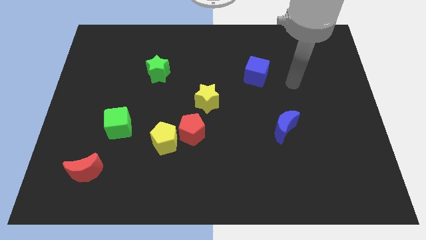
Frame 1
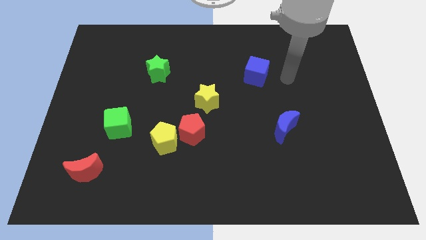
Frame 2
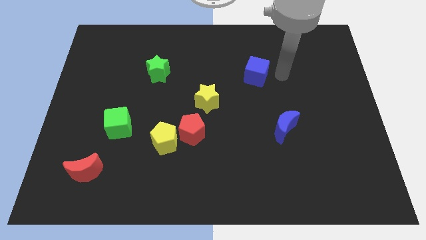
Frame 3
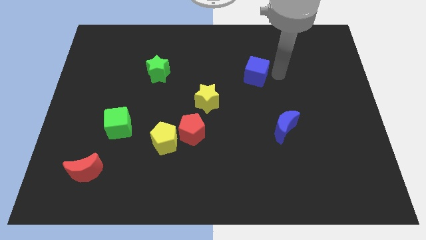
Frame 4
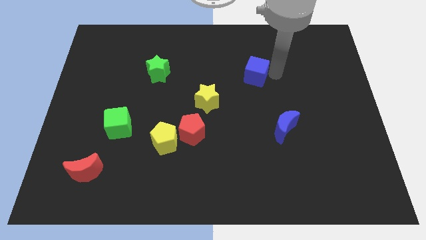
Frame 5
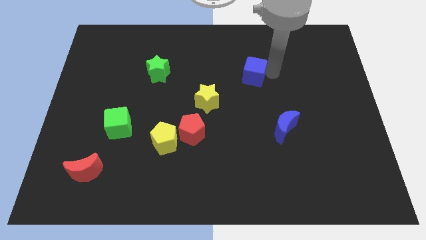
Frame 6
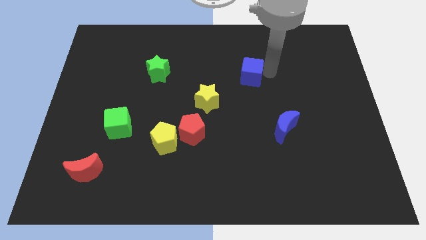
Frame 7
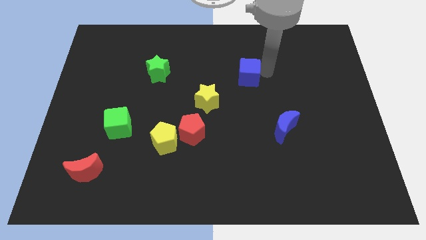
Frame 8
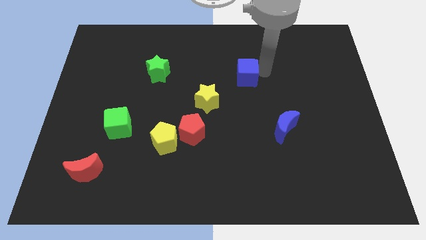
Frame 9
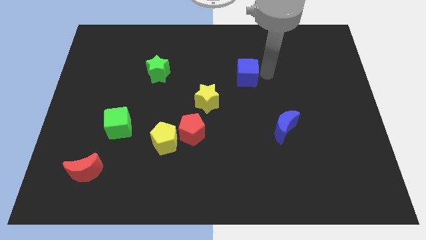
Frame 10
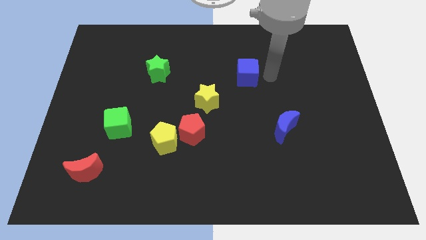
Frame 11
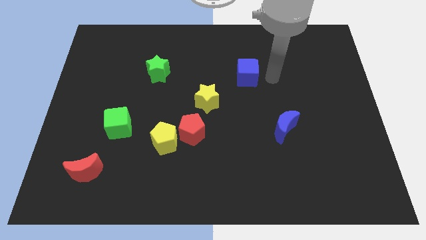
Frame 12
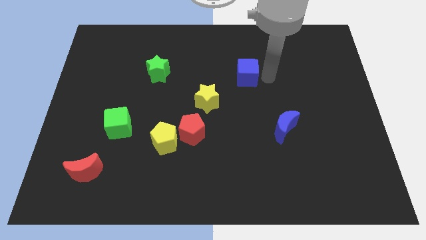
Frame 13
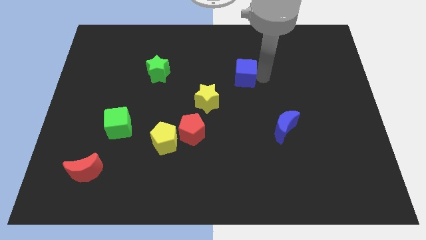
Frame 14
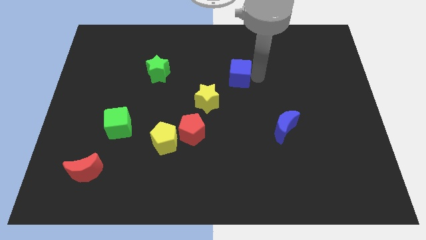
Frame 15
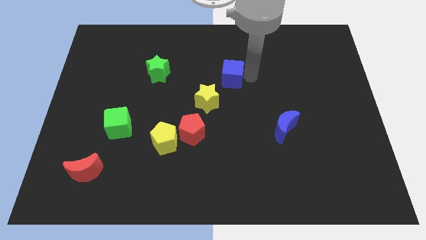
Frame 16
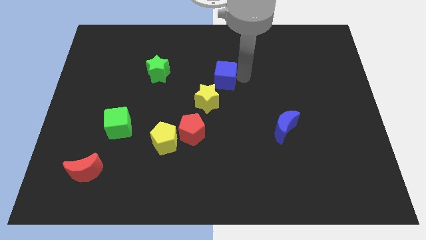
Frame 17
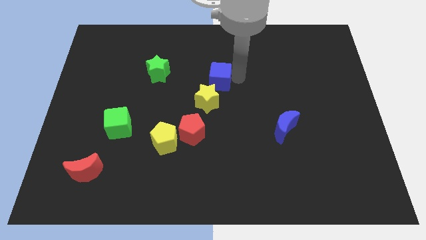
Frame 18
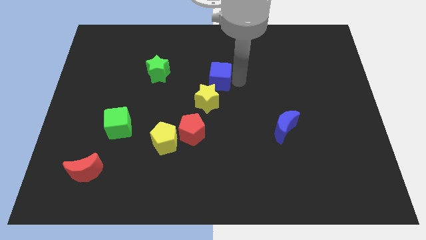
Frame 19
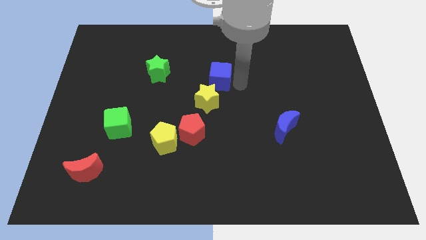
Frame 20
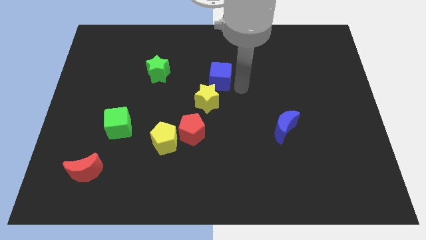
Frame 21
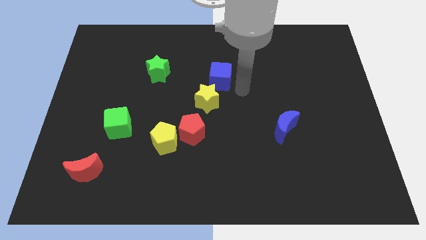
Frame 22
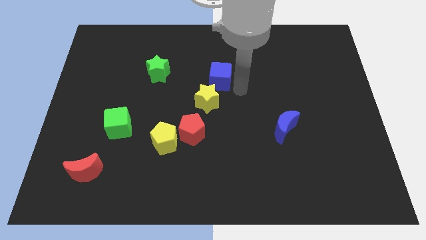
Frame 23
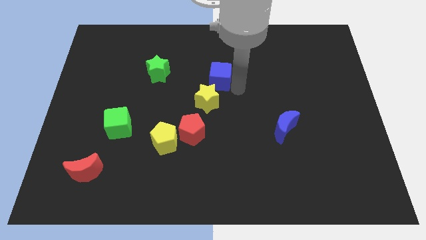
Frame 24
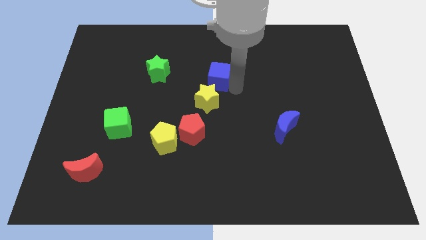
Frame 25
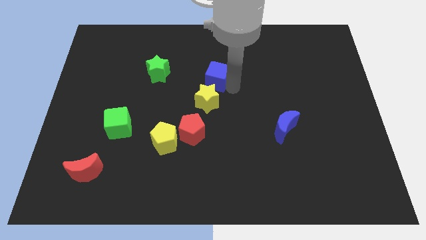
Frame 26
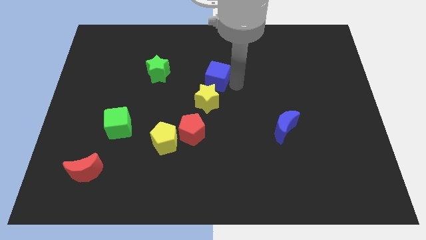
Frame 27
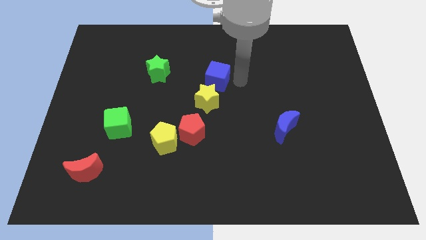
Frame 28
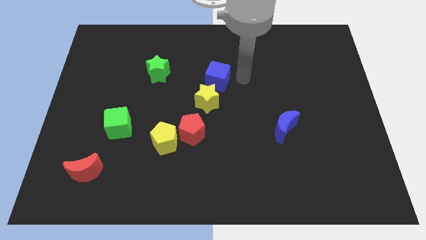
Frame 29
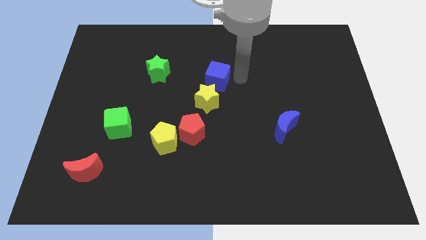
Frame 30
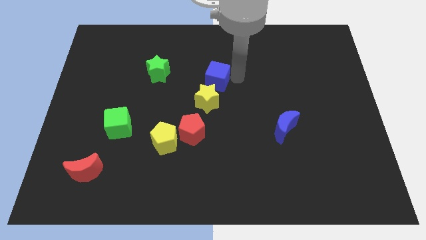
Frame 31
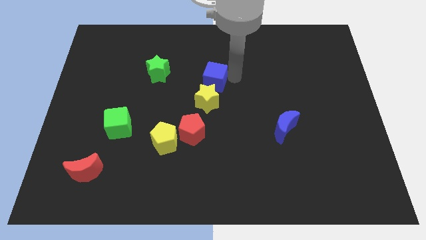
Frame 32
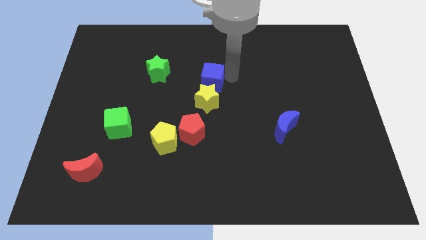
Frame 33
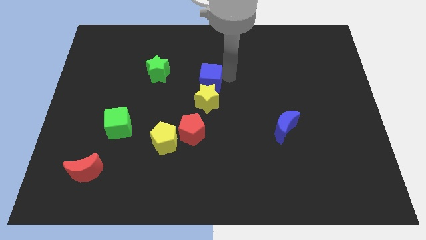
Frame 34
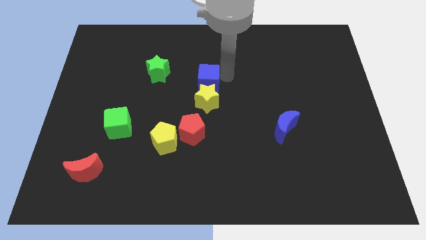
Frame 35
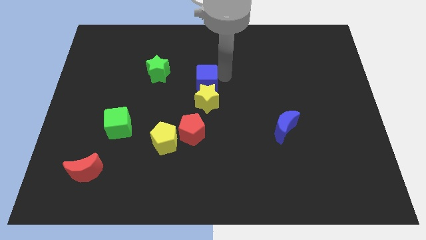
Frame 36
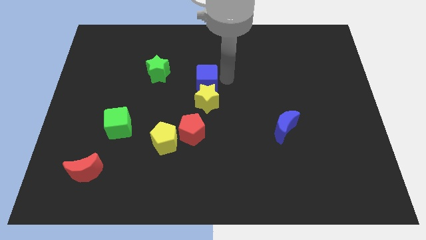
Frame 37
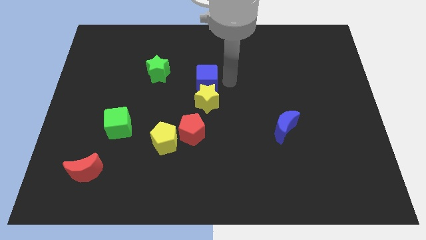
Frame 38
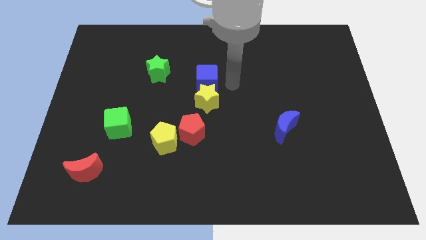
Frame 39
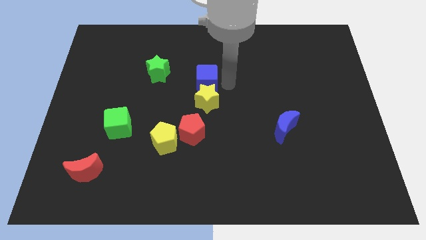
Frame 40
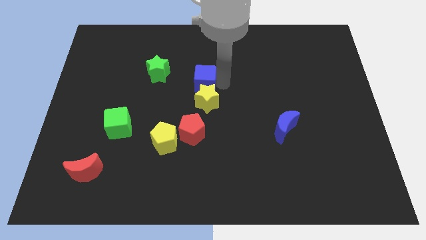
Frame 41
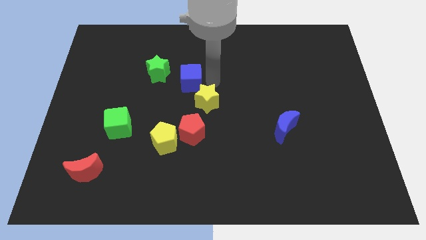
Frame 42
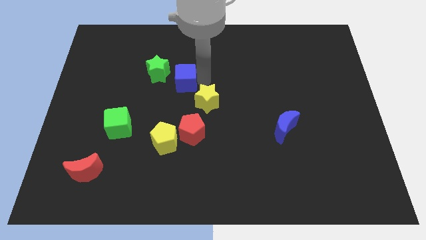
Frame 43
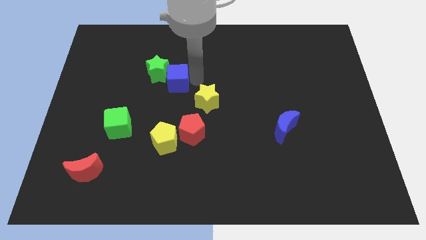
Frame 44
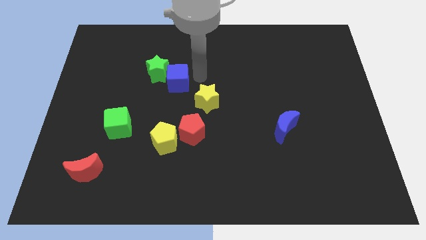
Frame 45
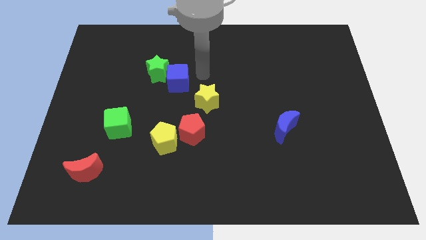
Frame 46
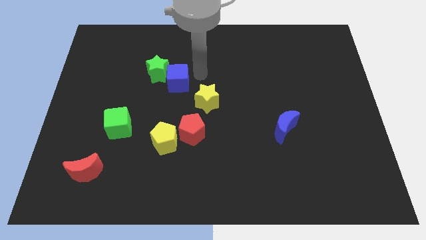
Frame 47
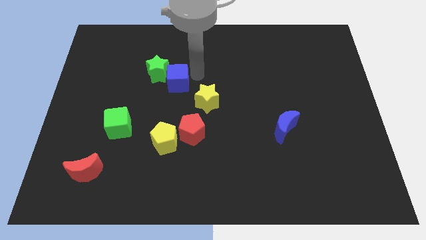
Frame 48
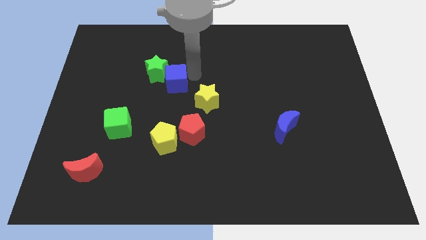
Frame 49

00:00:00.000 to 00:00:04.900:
move the blue cube to the left

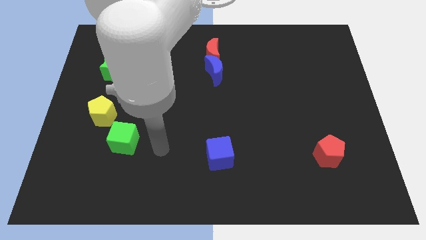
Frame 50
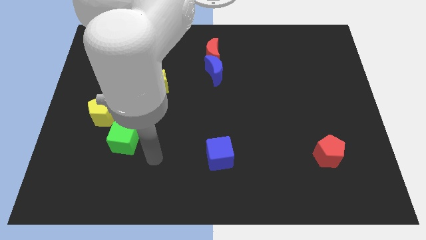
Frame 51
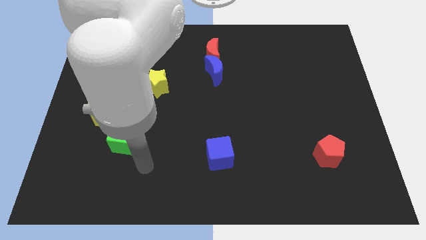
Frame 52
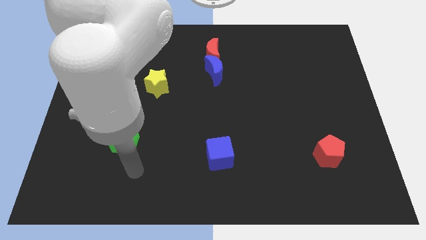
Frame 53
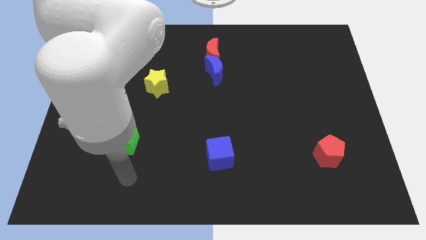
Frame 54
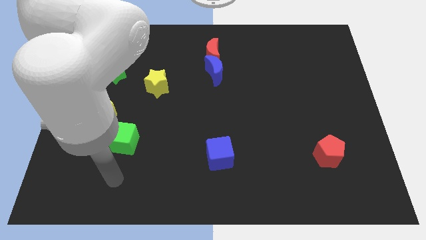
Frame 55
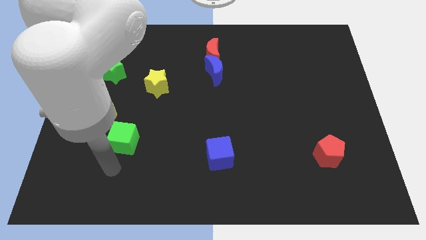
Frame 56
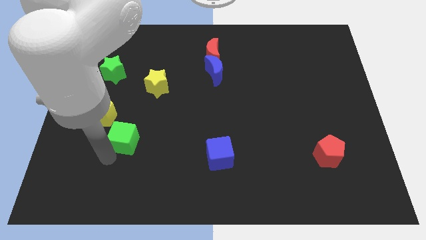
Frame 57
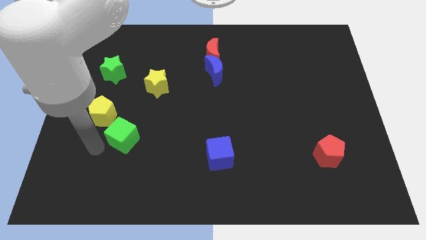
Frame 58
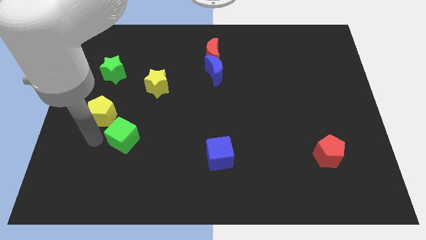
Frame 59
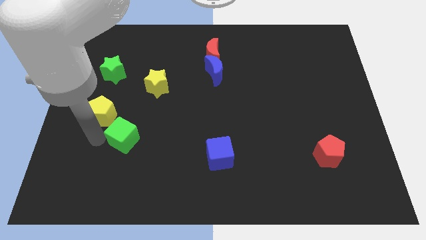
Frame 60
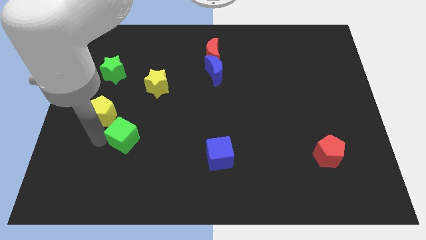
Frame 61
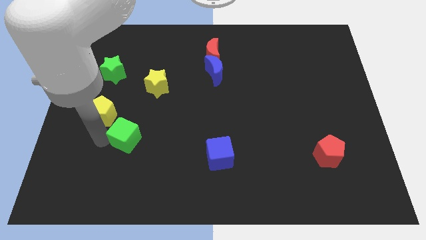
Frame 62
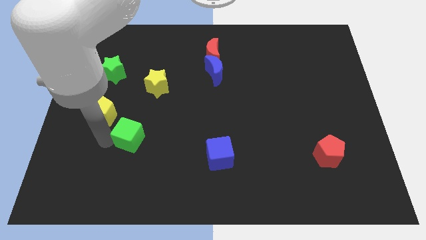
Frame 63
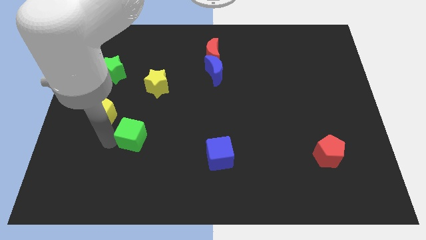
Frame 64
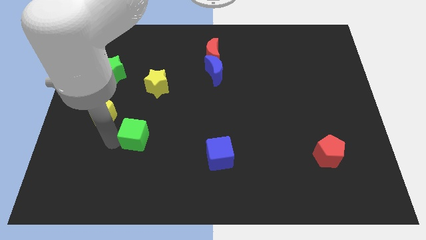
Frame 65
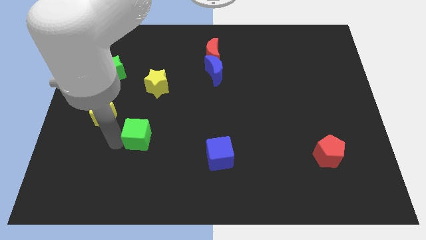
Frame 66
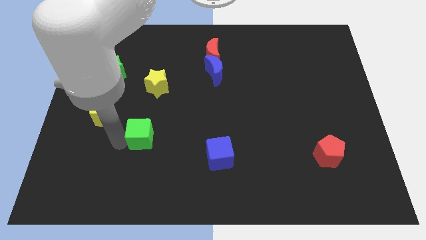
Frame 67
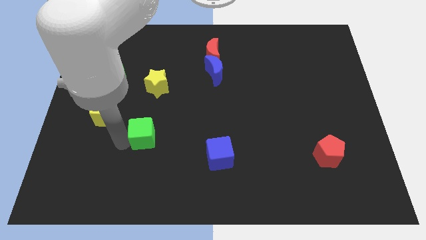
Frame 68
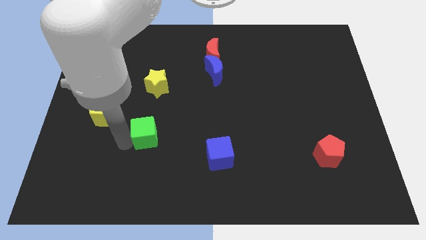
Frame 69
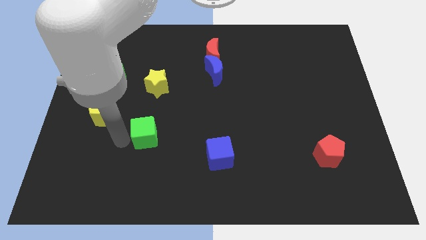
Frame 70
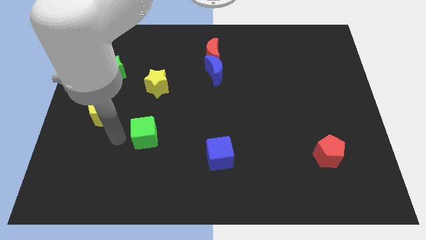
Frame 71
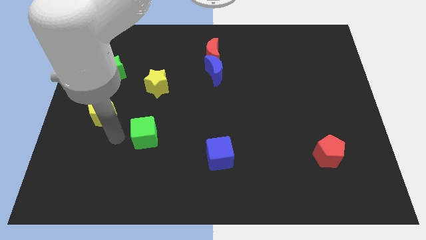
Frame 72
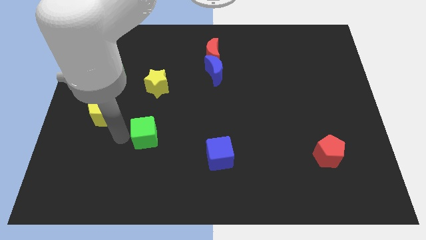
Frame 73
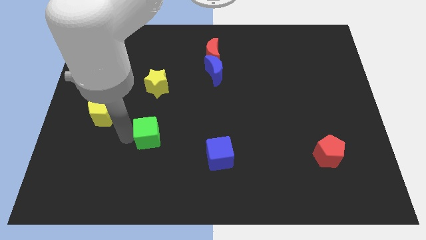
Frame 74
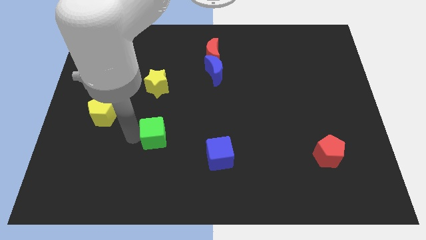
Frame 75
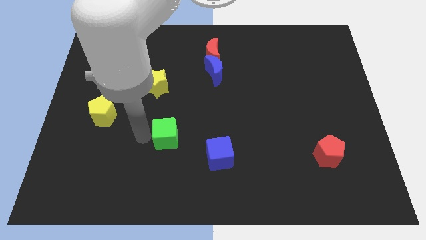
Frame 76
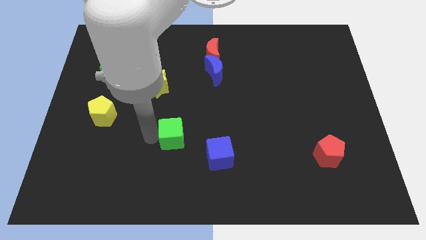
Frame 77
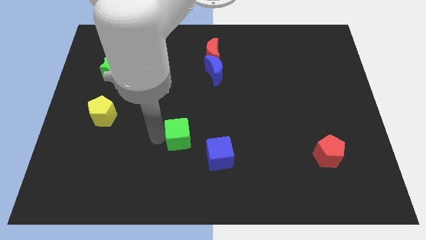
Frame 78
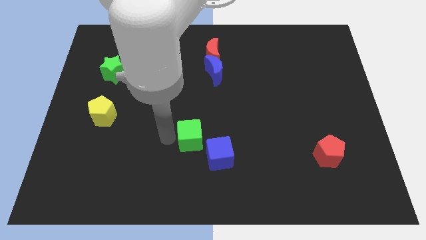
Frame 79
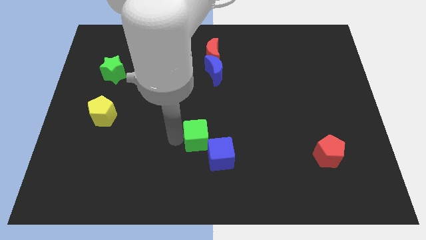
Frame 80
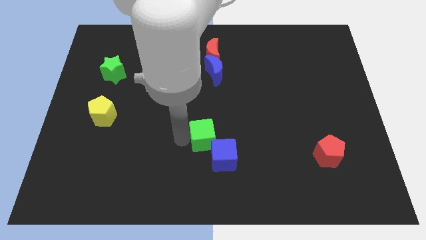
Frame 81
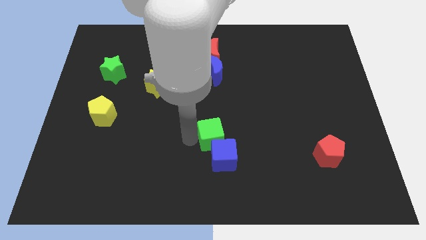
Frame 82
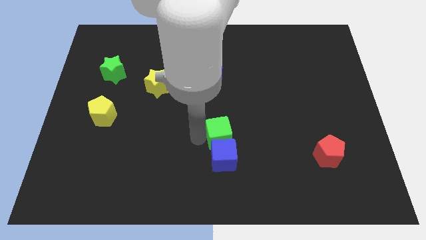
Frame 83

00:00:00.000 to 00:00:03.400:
move the green cube to the right
